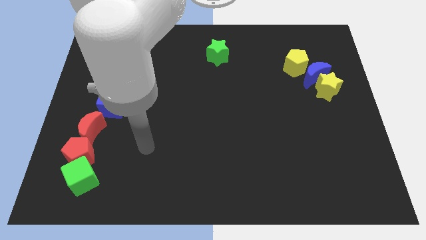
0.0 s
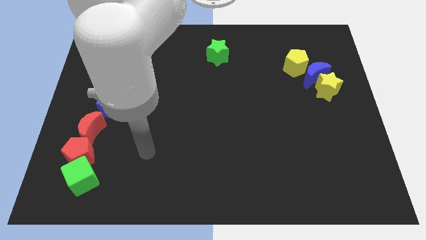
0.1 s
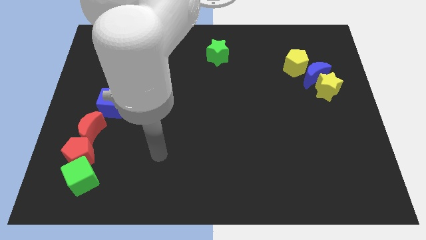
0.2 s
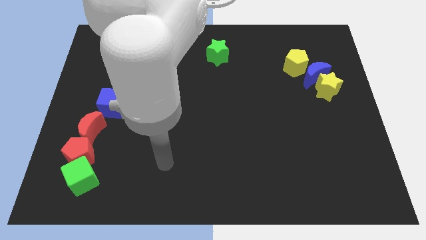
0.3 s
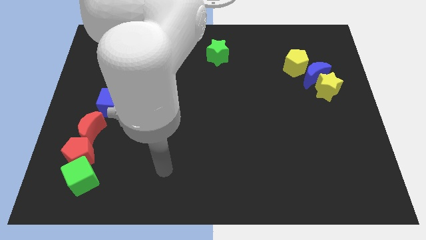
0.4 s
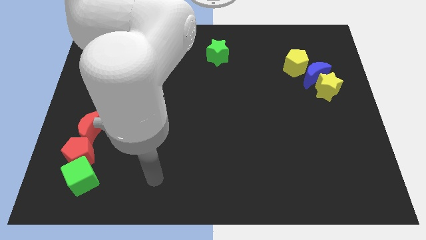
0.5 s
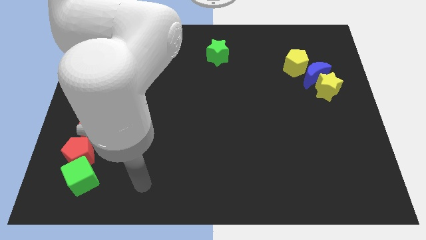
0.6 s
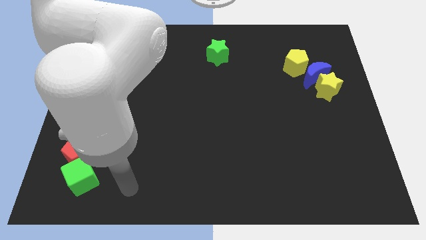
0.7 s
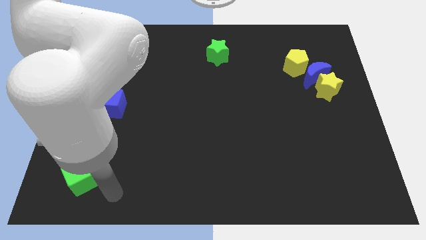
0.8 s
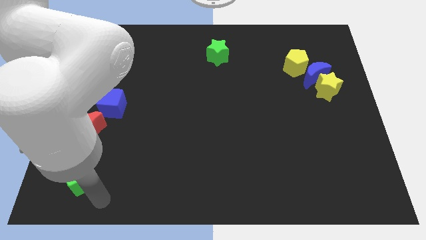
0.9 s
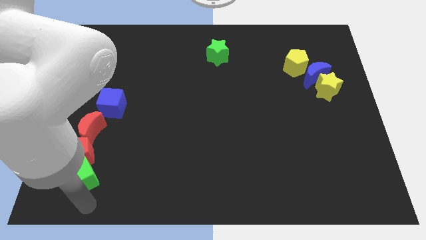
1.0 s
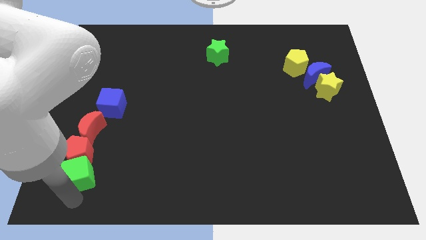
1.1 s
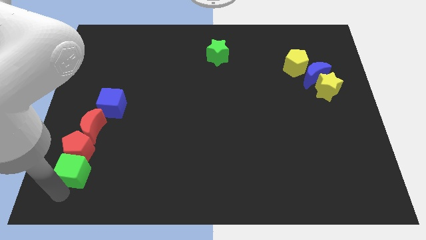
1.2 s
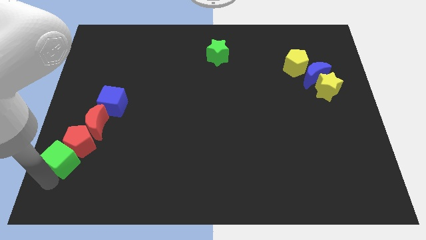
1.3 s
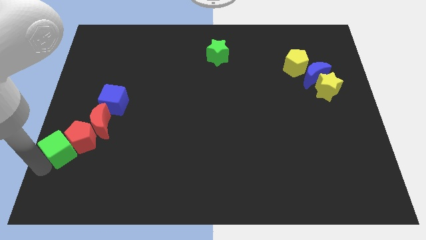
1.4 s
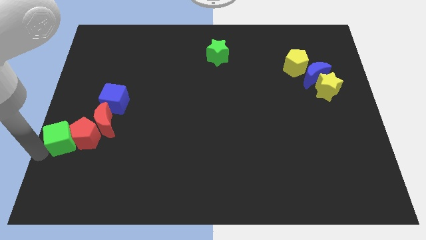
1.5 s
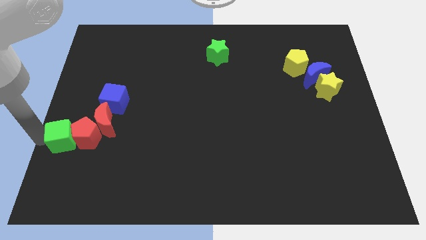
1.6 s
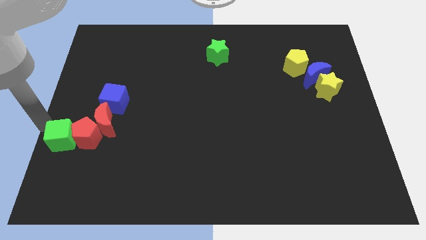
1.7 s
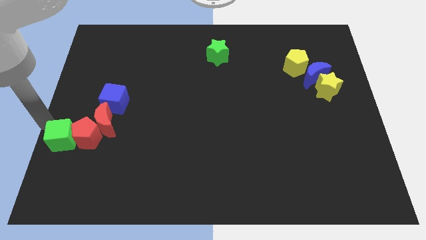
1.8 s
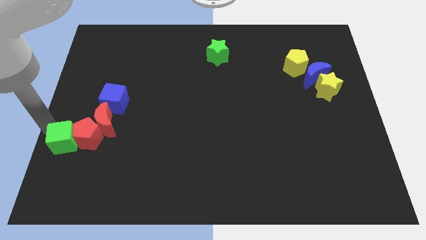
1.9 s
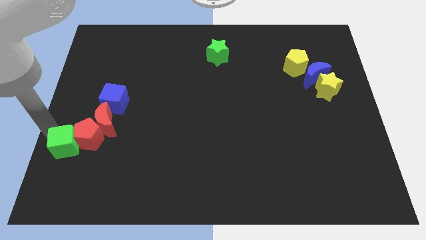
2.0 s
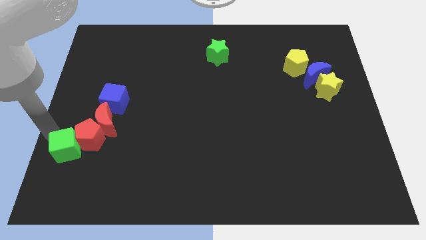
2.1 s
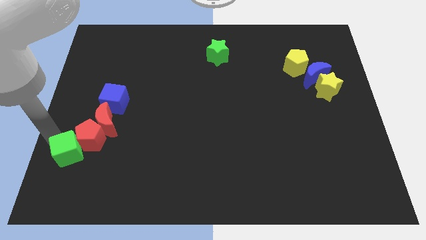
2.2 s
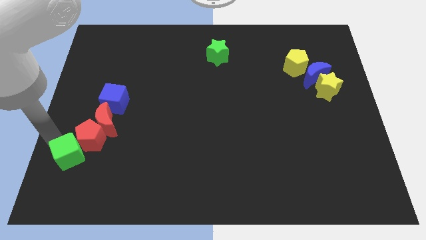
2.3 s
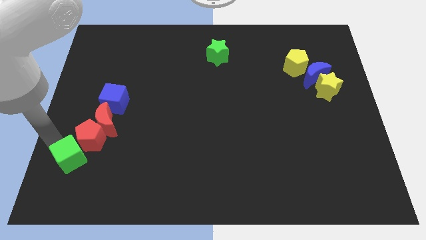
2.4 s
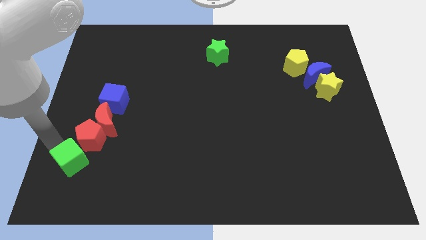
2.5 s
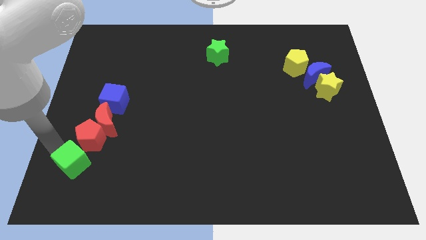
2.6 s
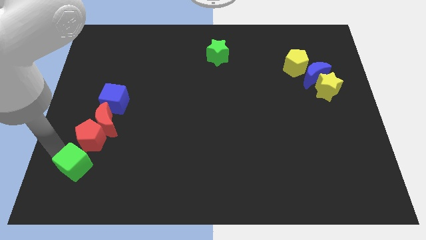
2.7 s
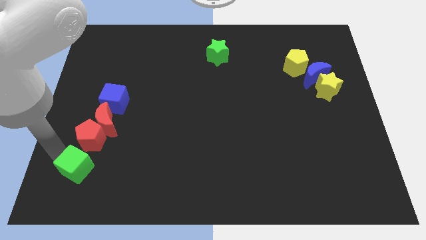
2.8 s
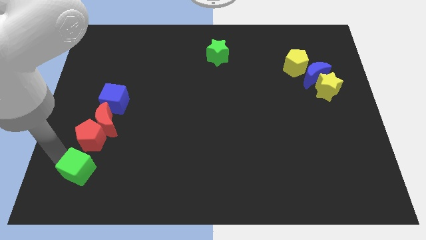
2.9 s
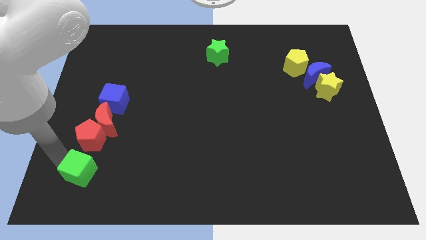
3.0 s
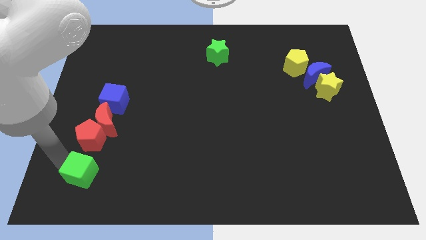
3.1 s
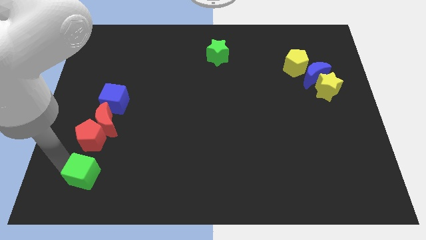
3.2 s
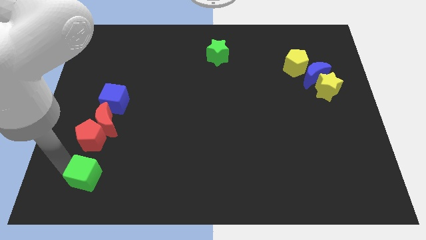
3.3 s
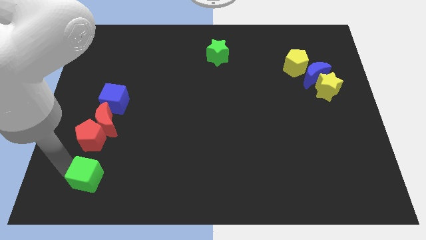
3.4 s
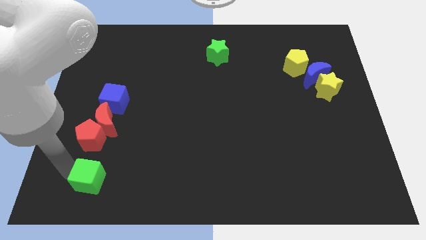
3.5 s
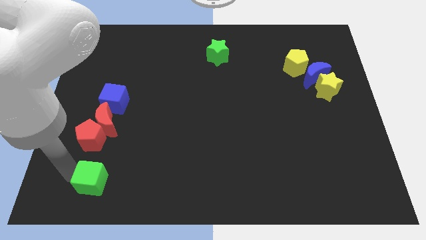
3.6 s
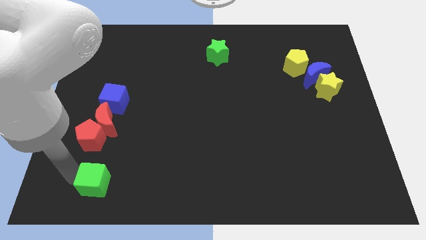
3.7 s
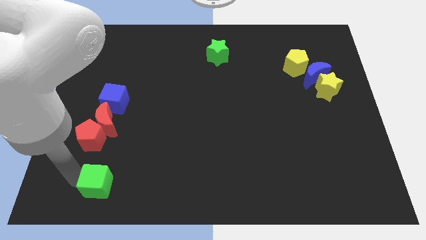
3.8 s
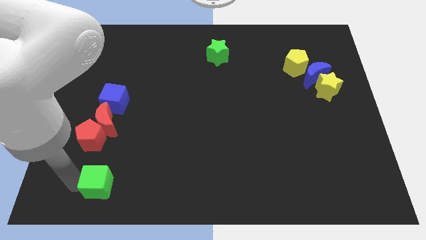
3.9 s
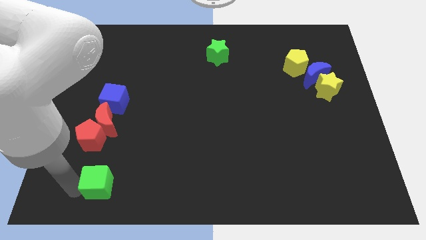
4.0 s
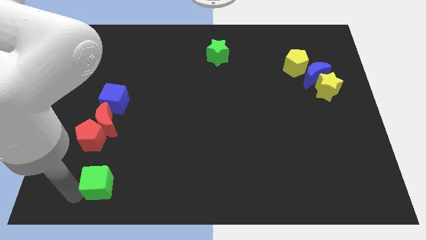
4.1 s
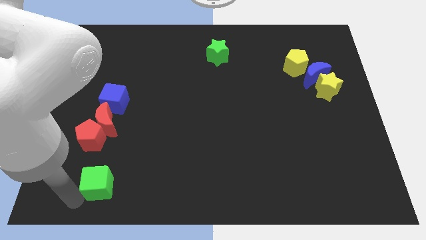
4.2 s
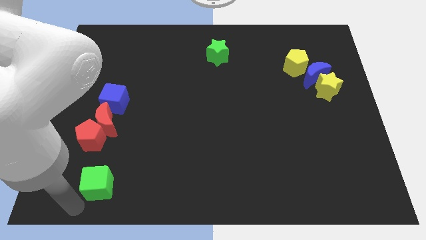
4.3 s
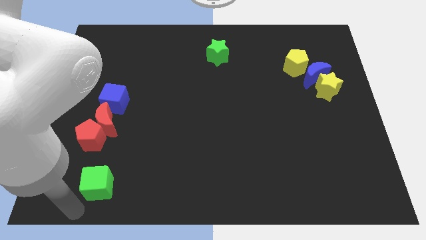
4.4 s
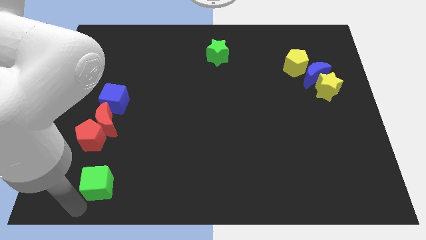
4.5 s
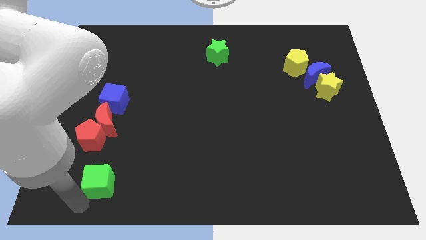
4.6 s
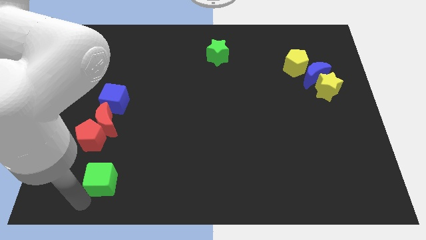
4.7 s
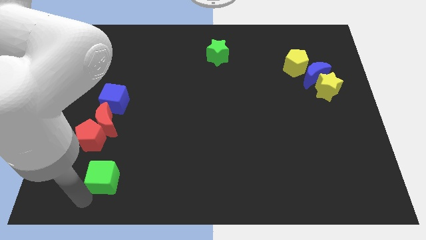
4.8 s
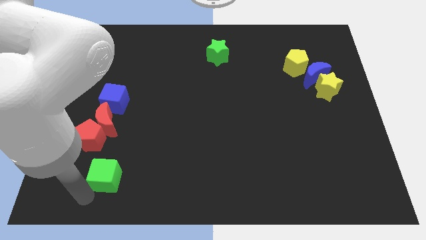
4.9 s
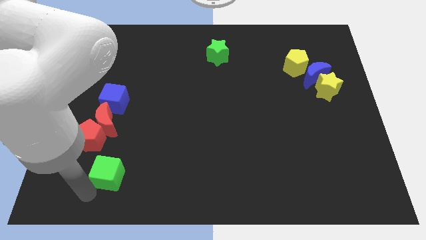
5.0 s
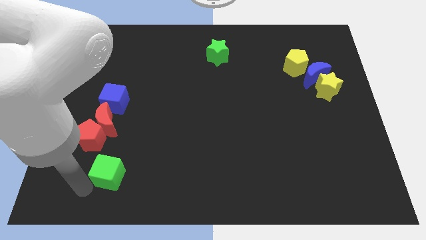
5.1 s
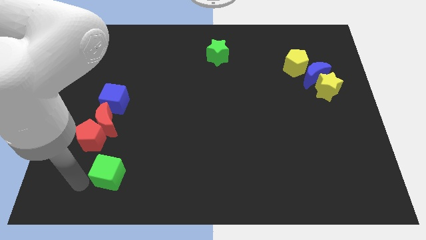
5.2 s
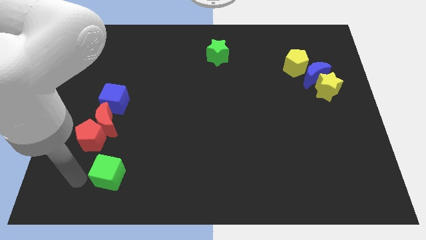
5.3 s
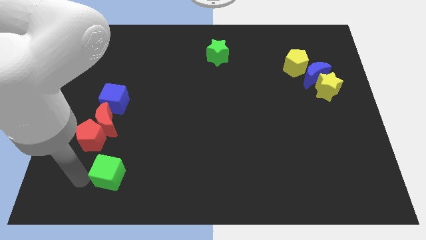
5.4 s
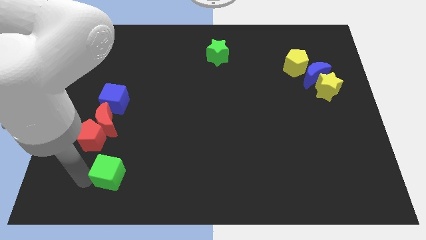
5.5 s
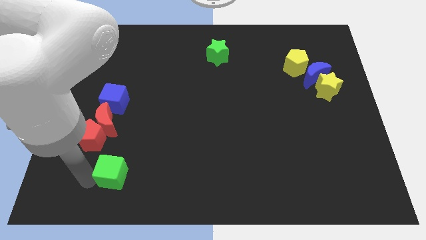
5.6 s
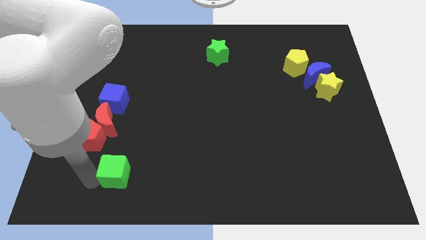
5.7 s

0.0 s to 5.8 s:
move the green cube to the right somewhat

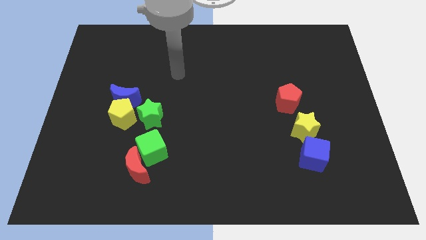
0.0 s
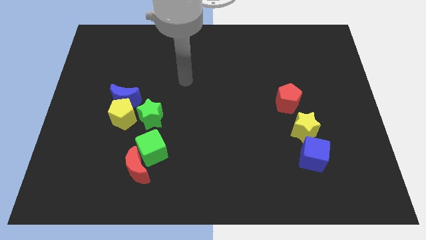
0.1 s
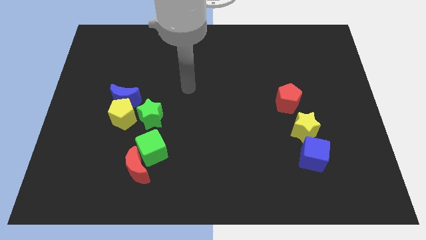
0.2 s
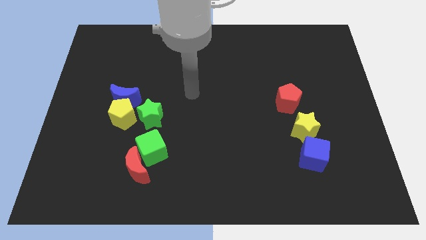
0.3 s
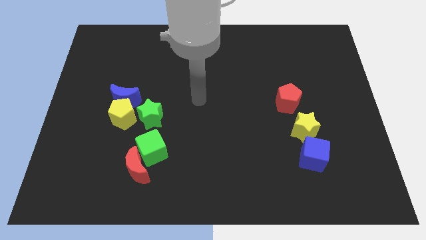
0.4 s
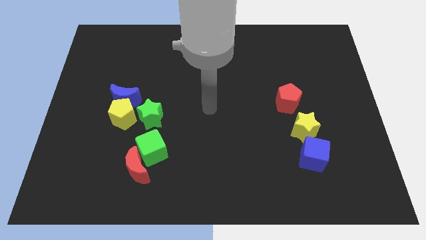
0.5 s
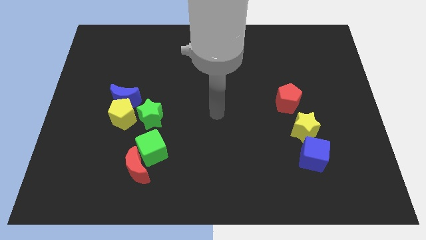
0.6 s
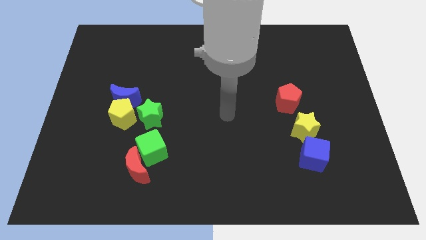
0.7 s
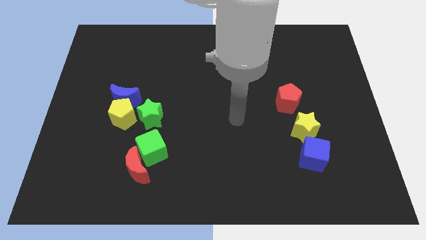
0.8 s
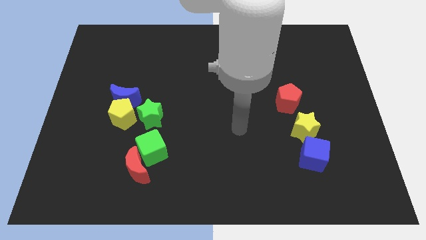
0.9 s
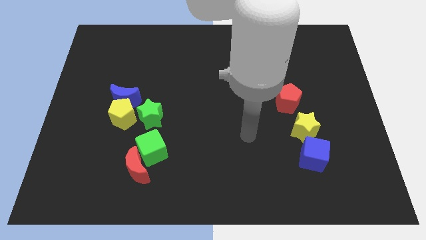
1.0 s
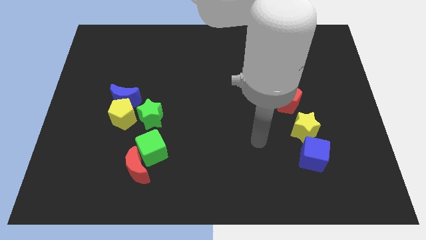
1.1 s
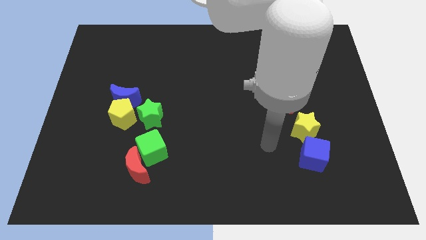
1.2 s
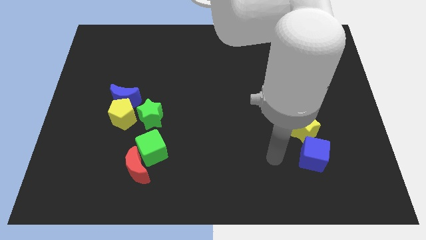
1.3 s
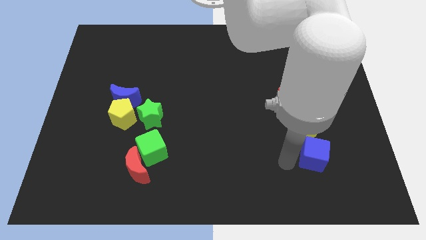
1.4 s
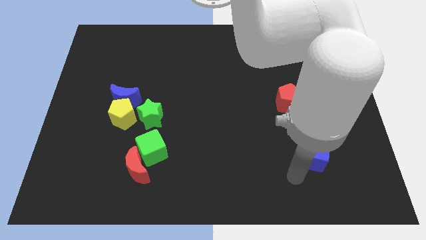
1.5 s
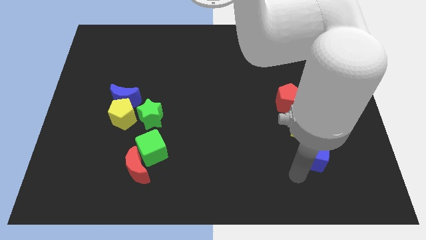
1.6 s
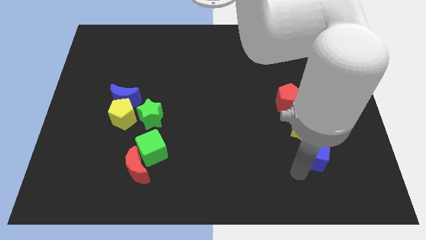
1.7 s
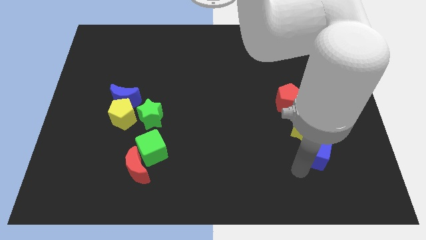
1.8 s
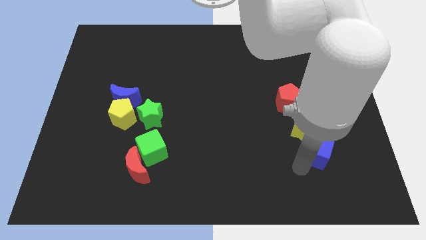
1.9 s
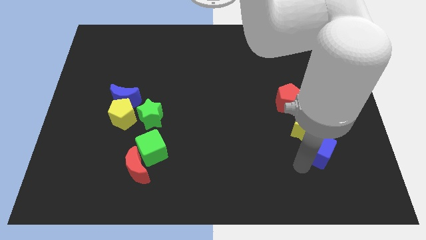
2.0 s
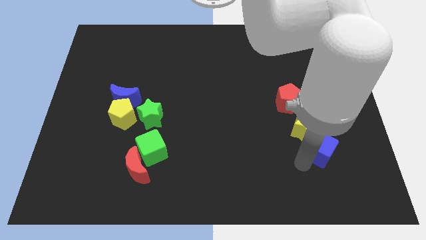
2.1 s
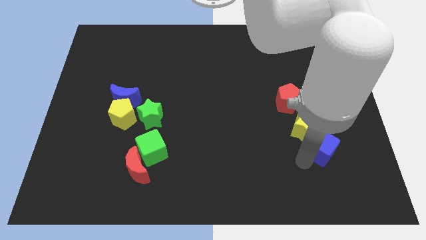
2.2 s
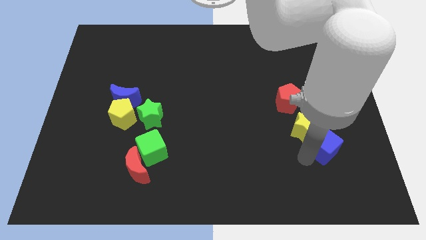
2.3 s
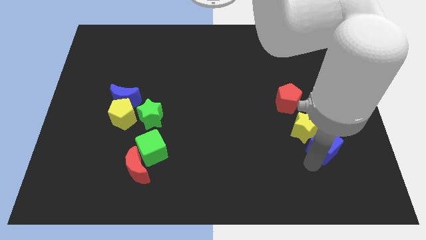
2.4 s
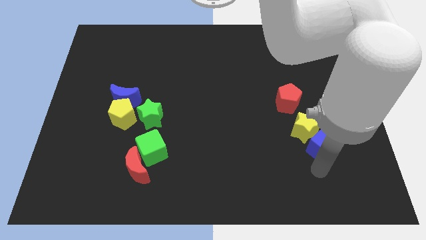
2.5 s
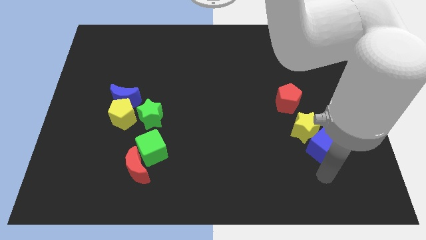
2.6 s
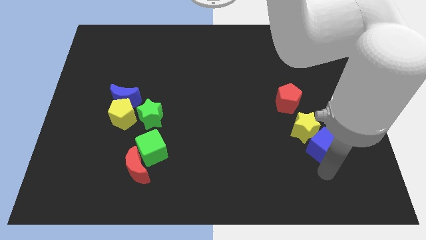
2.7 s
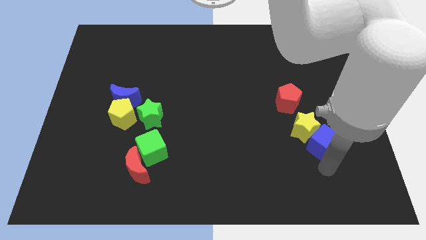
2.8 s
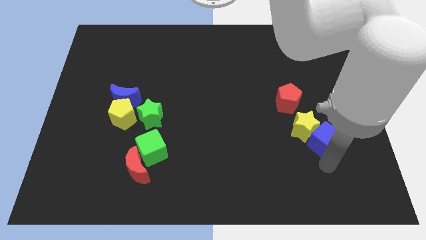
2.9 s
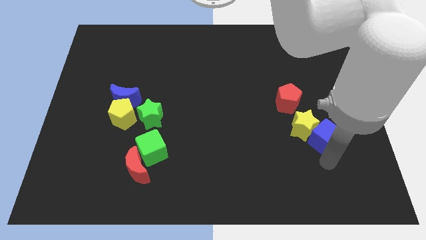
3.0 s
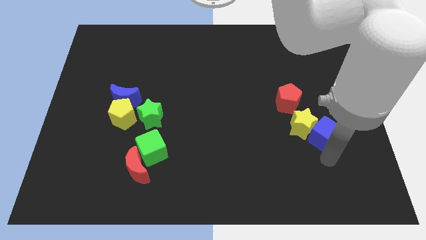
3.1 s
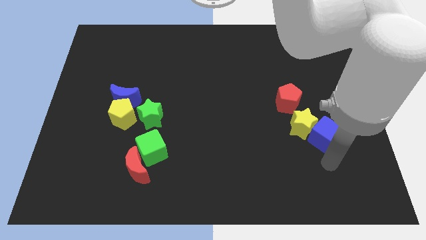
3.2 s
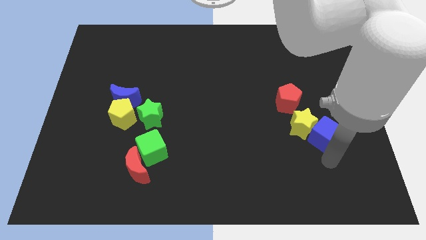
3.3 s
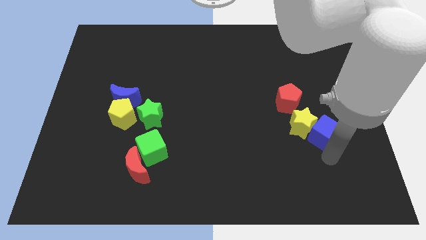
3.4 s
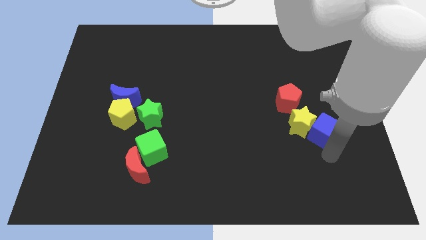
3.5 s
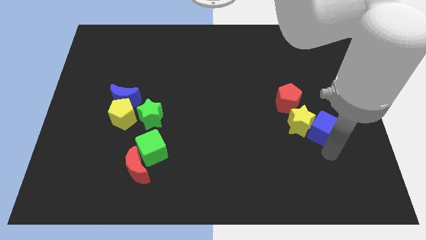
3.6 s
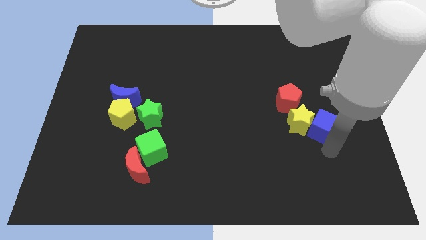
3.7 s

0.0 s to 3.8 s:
slightly move the blue cube upwards
